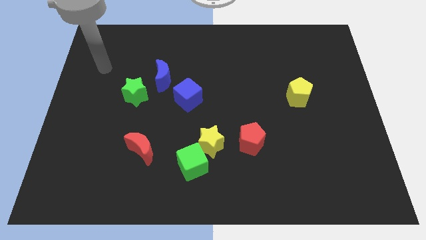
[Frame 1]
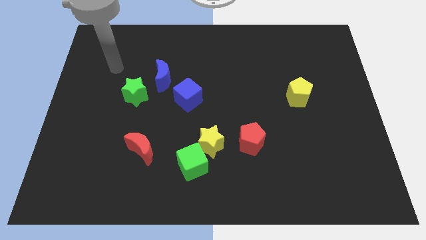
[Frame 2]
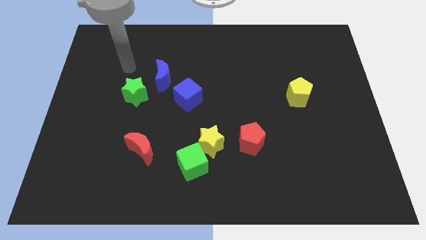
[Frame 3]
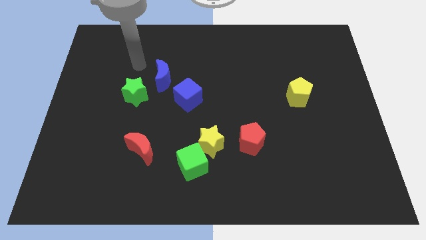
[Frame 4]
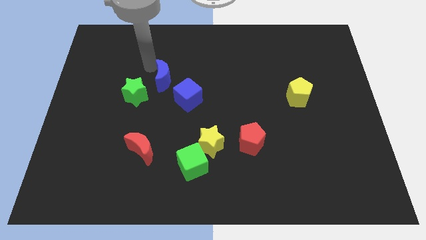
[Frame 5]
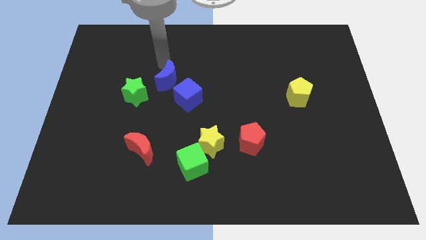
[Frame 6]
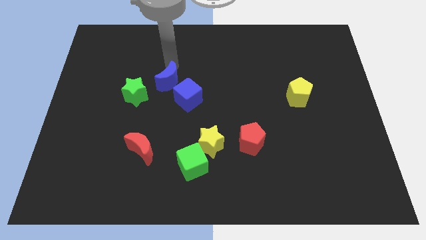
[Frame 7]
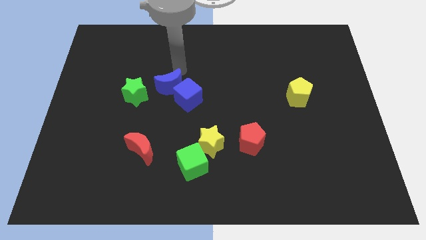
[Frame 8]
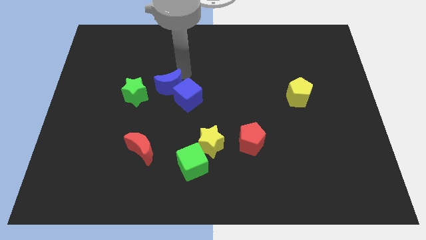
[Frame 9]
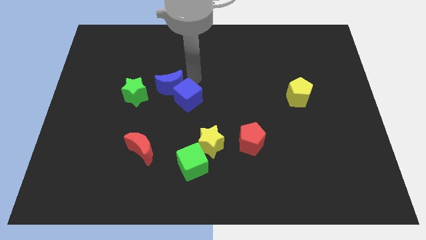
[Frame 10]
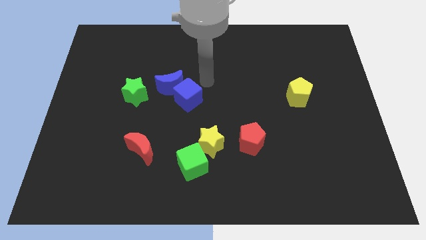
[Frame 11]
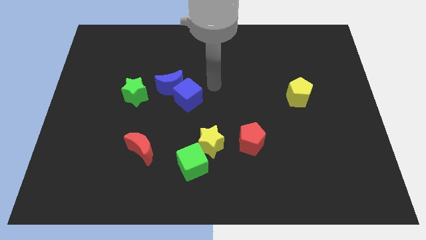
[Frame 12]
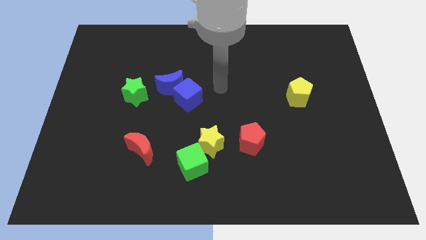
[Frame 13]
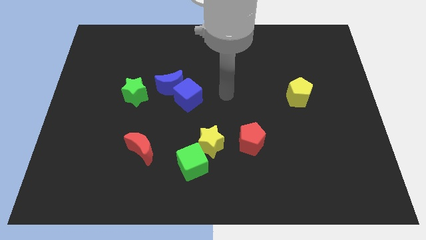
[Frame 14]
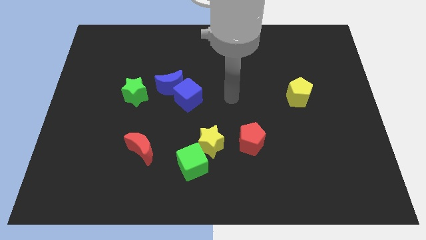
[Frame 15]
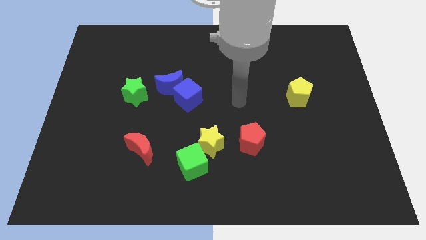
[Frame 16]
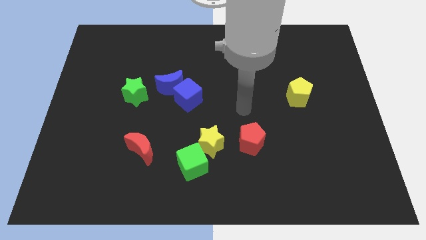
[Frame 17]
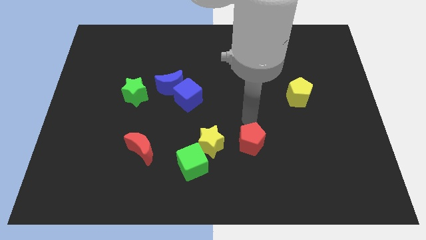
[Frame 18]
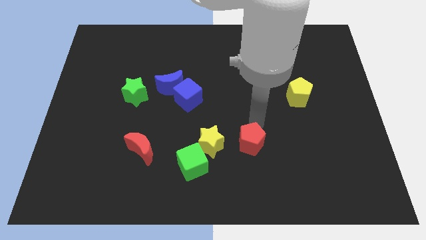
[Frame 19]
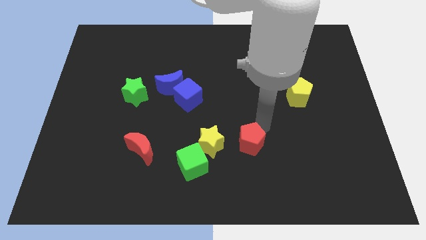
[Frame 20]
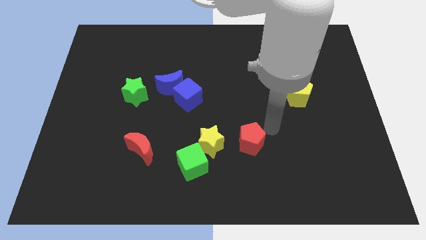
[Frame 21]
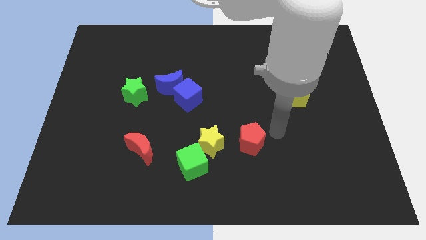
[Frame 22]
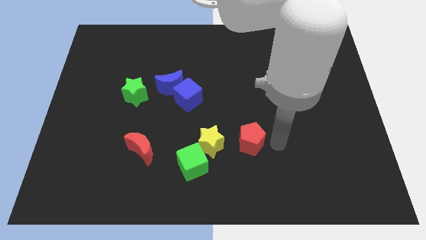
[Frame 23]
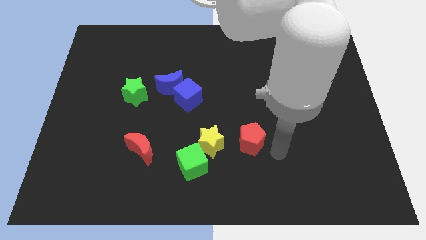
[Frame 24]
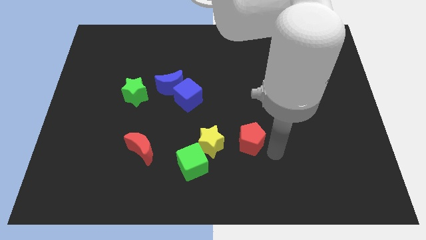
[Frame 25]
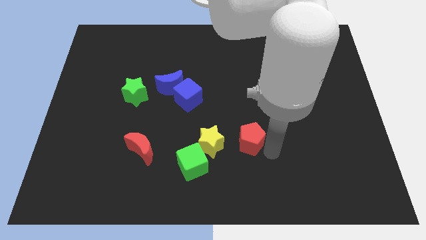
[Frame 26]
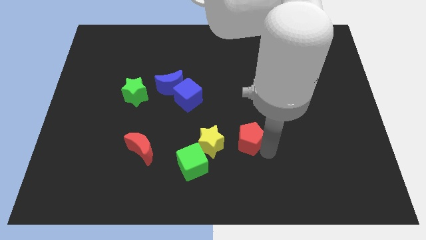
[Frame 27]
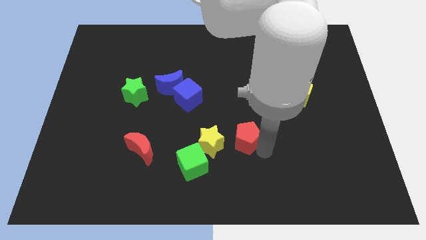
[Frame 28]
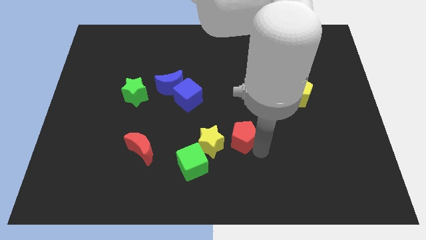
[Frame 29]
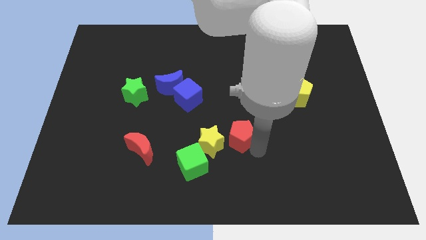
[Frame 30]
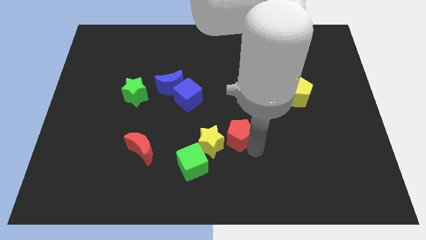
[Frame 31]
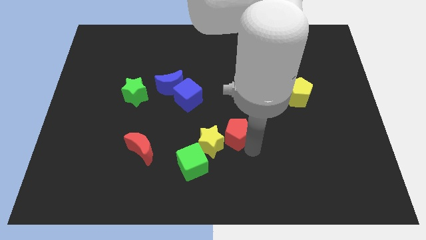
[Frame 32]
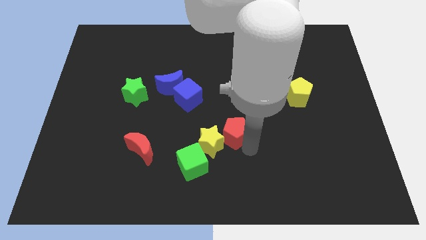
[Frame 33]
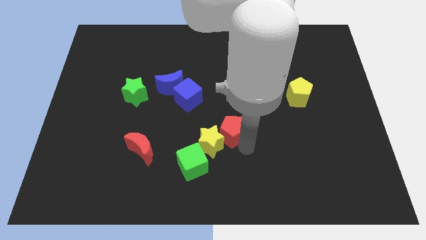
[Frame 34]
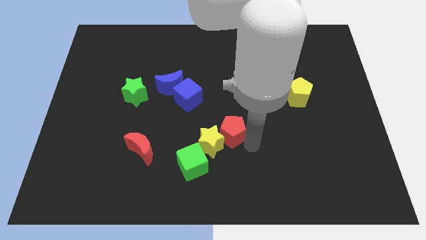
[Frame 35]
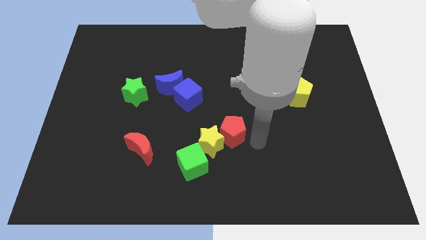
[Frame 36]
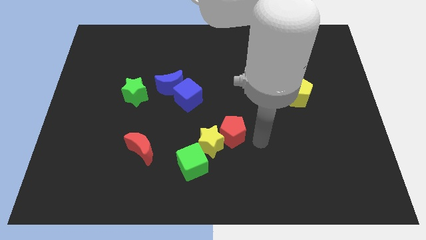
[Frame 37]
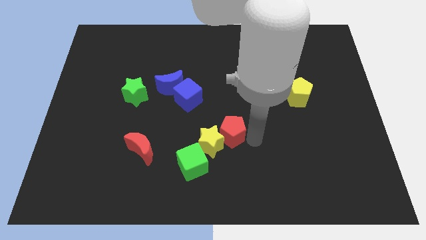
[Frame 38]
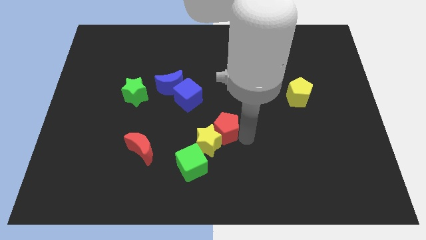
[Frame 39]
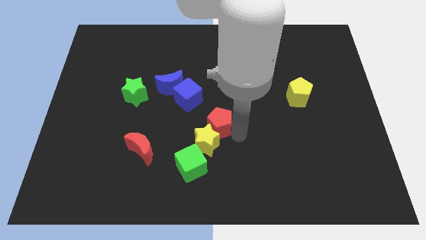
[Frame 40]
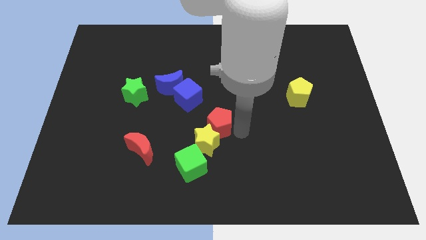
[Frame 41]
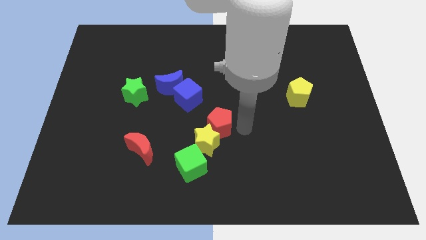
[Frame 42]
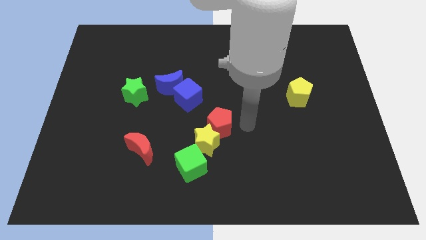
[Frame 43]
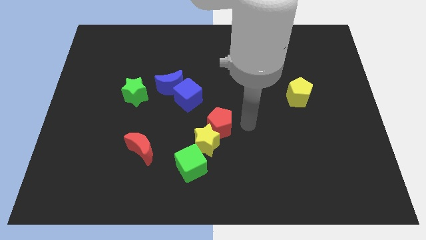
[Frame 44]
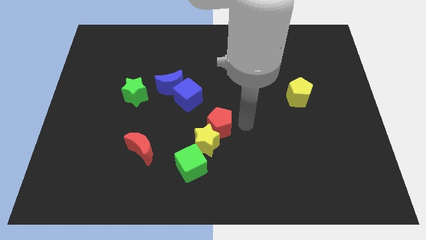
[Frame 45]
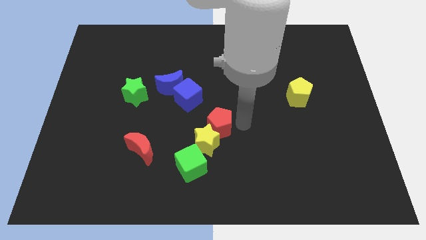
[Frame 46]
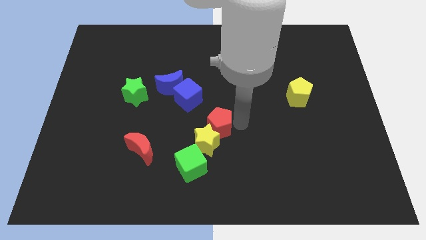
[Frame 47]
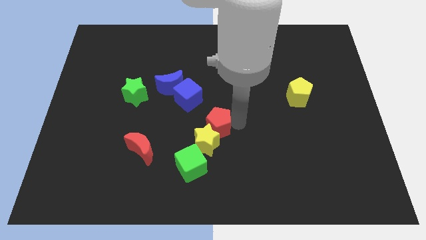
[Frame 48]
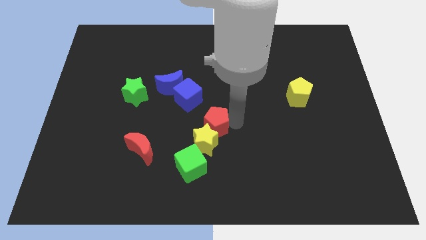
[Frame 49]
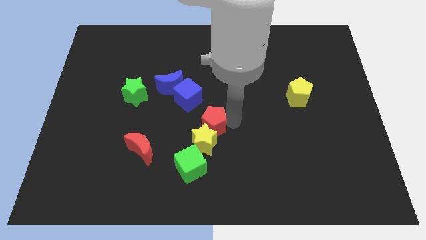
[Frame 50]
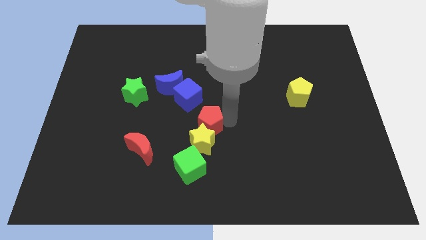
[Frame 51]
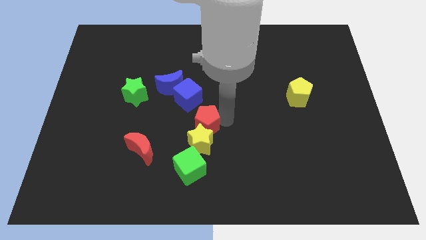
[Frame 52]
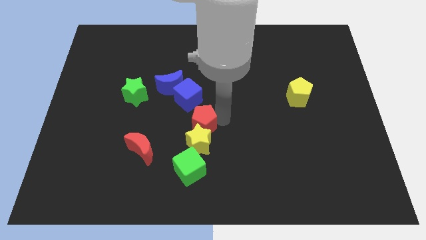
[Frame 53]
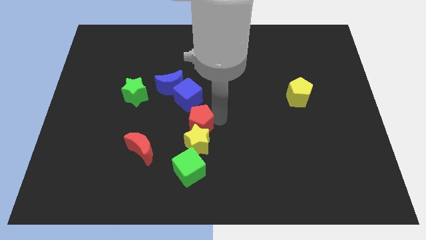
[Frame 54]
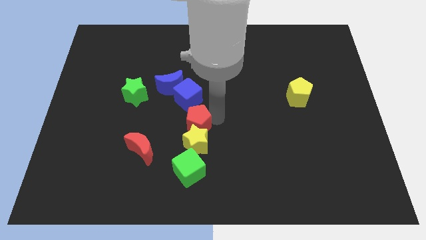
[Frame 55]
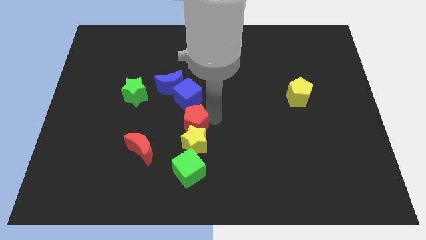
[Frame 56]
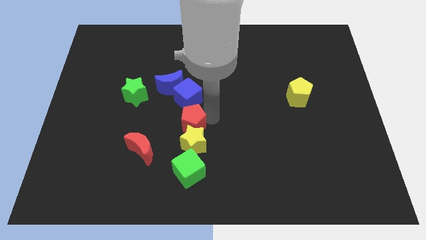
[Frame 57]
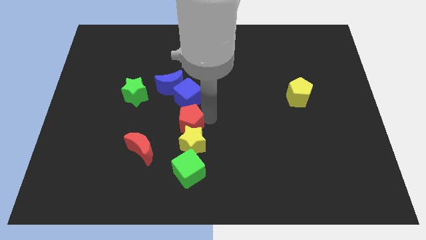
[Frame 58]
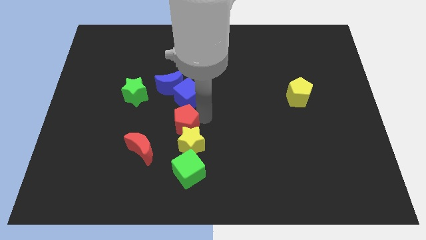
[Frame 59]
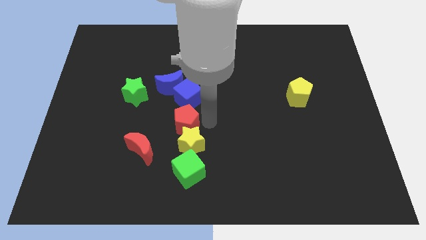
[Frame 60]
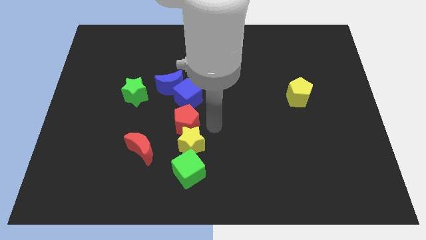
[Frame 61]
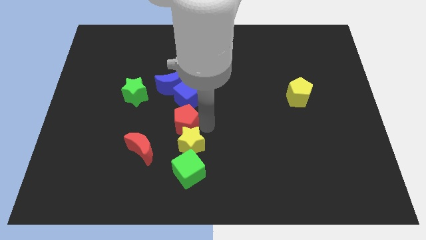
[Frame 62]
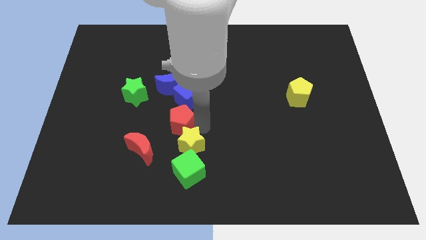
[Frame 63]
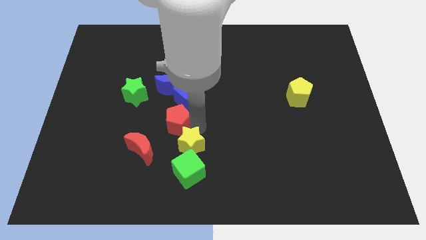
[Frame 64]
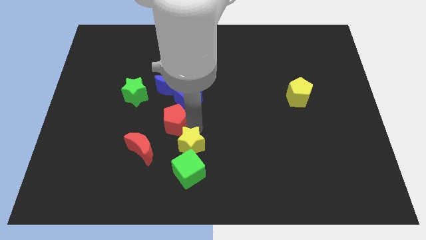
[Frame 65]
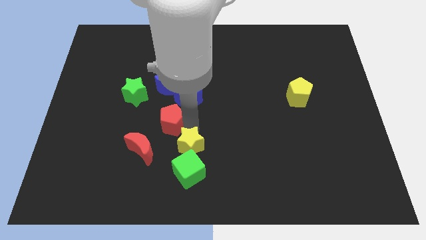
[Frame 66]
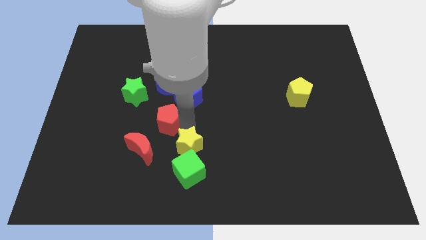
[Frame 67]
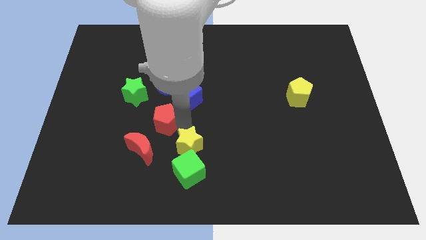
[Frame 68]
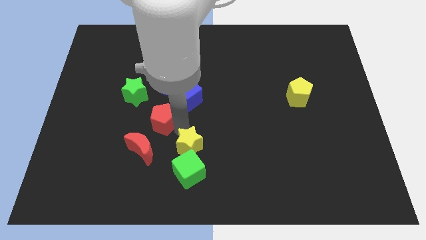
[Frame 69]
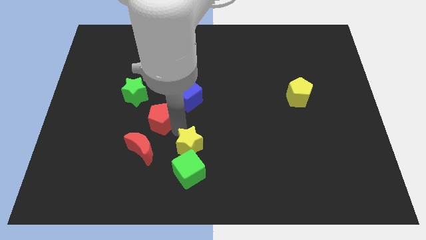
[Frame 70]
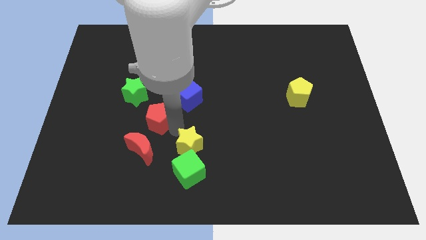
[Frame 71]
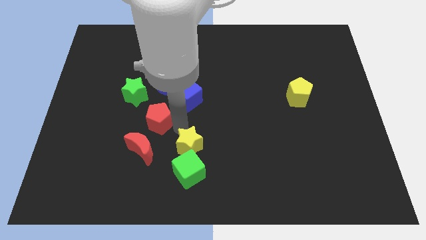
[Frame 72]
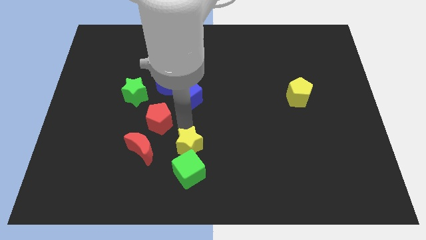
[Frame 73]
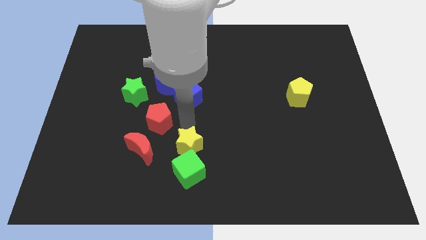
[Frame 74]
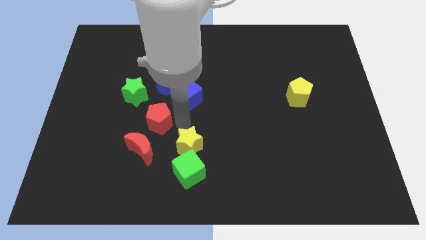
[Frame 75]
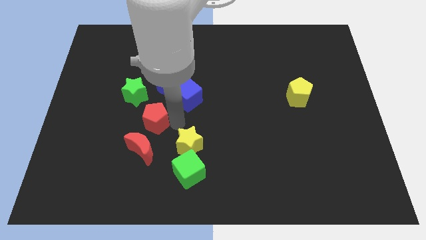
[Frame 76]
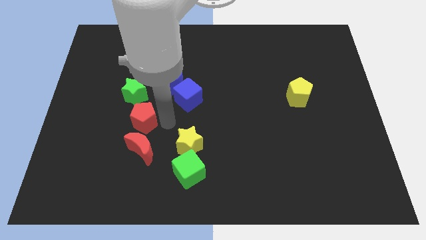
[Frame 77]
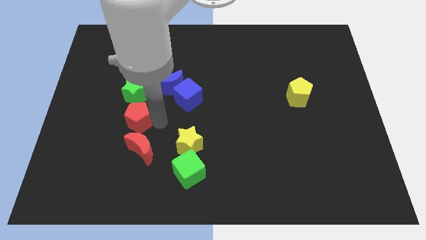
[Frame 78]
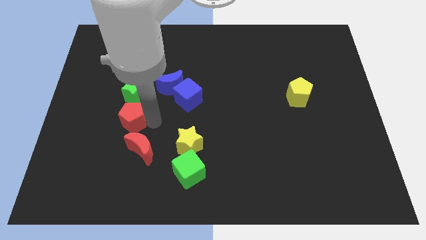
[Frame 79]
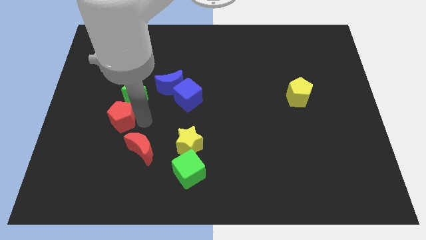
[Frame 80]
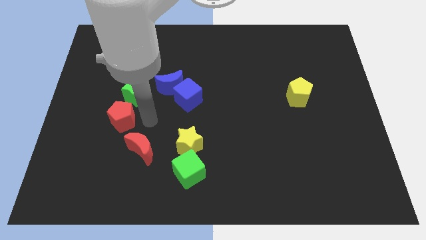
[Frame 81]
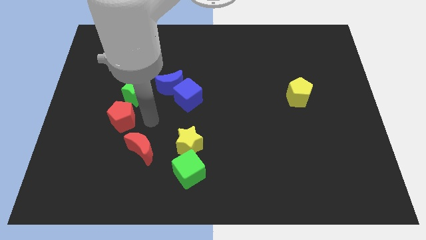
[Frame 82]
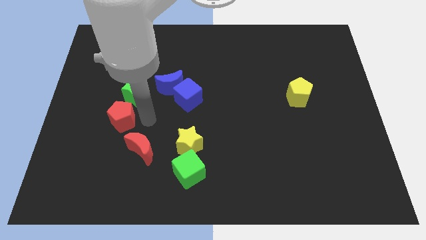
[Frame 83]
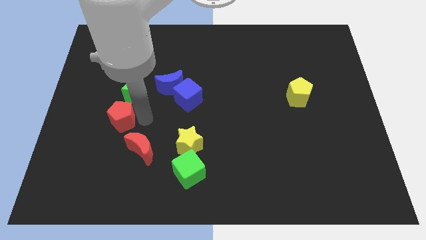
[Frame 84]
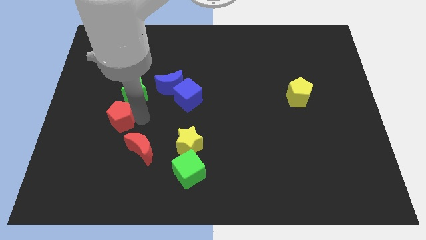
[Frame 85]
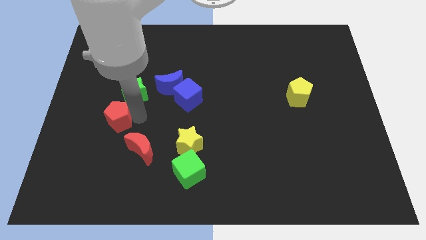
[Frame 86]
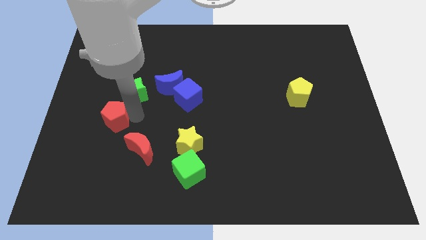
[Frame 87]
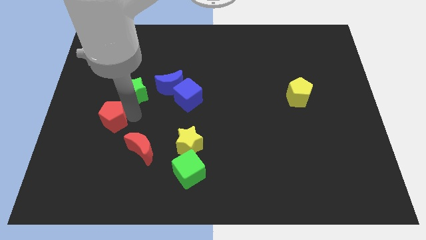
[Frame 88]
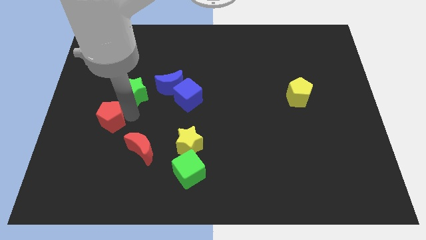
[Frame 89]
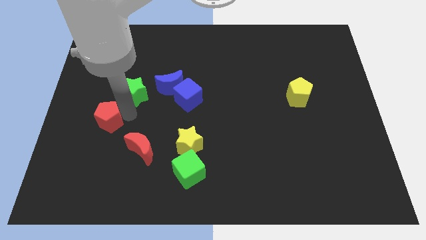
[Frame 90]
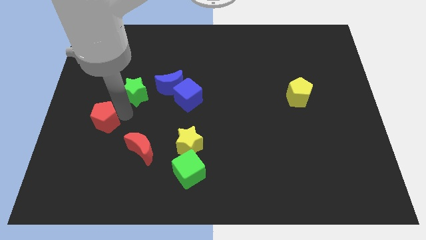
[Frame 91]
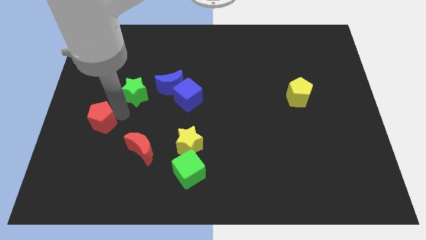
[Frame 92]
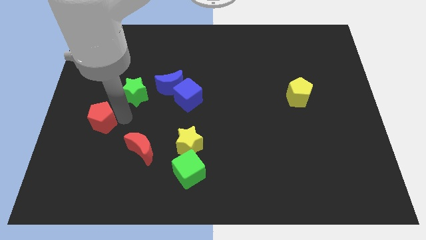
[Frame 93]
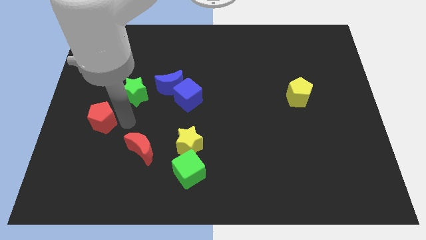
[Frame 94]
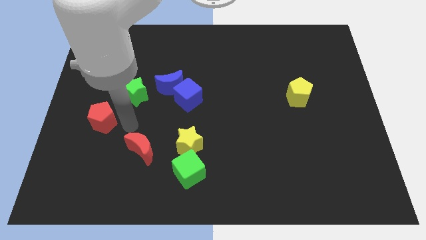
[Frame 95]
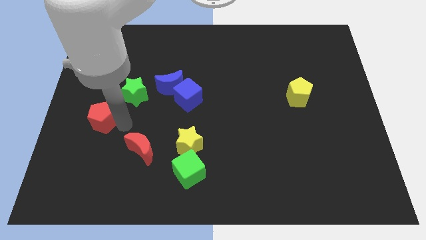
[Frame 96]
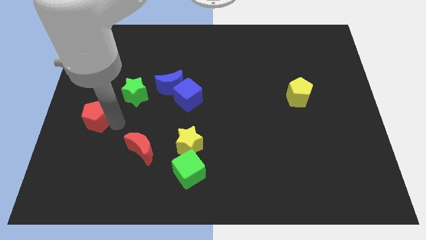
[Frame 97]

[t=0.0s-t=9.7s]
push the red pentagon to the left side of the board
